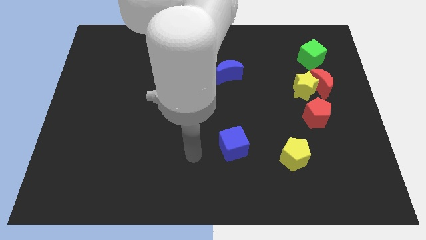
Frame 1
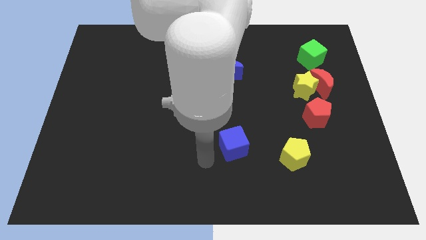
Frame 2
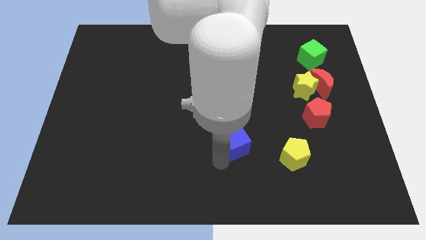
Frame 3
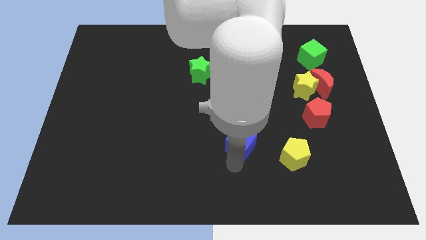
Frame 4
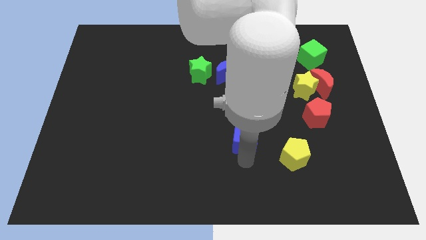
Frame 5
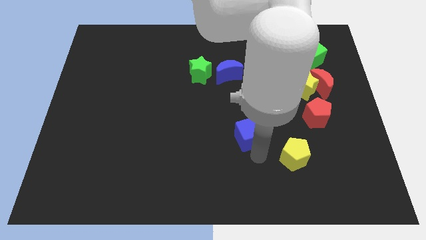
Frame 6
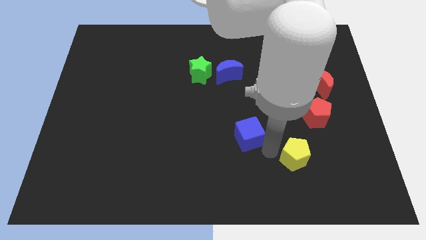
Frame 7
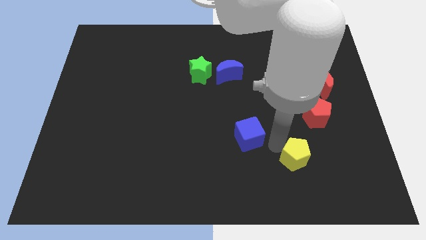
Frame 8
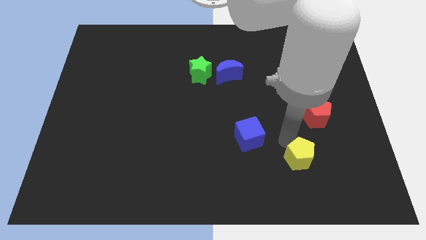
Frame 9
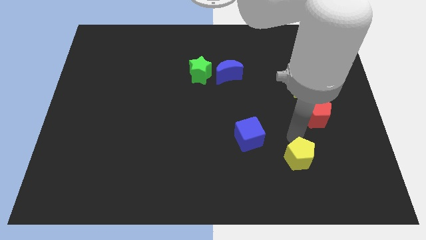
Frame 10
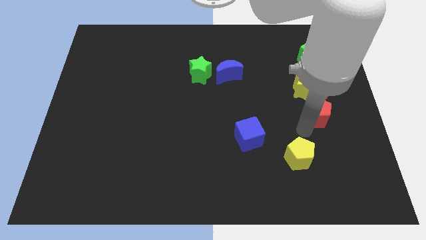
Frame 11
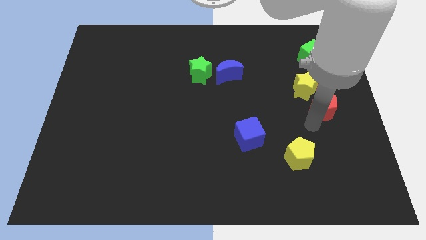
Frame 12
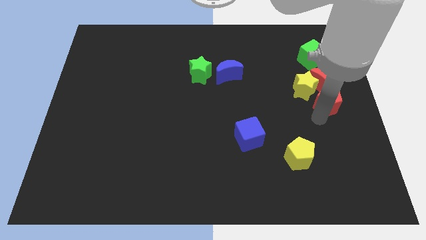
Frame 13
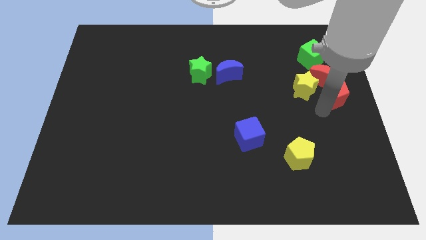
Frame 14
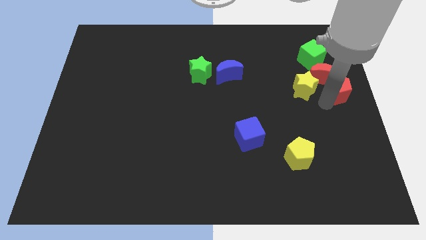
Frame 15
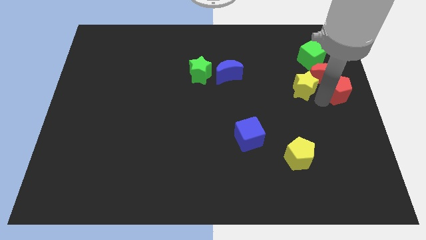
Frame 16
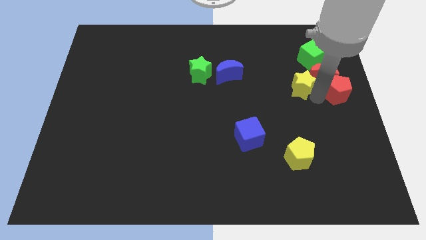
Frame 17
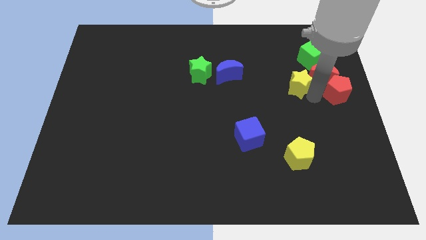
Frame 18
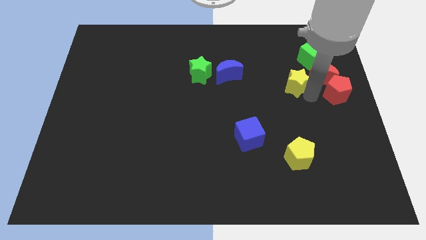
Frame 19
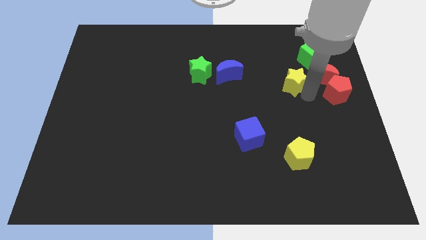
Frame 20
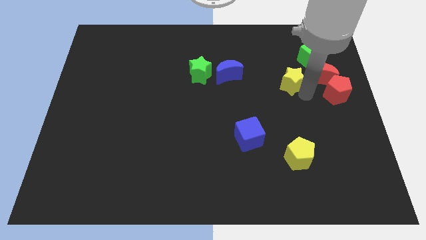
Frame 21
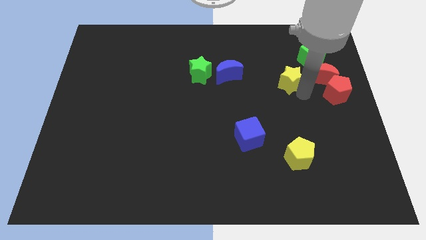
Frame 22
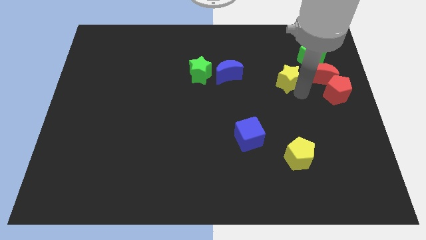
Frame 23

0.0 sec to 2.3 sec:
separate the yellow star from the red moon and red pentagon

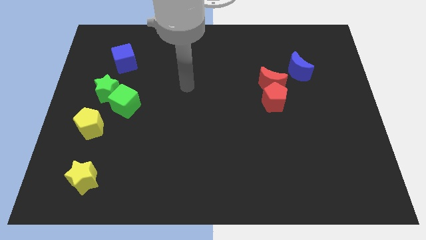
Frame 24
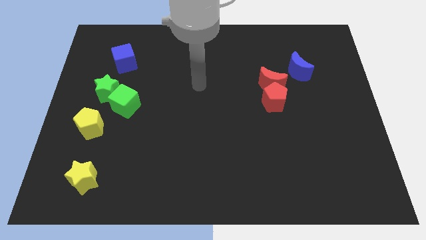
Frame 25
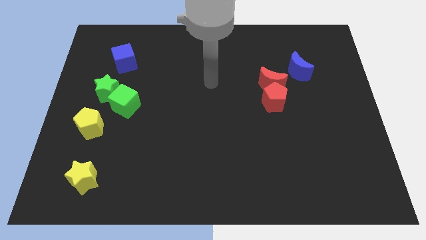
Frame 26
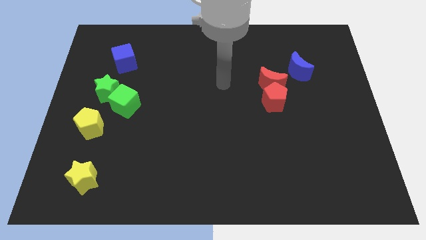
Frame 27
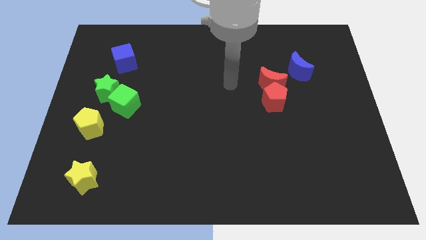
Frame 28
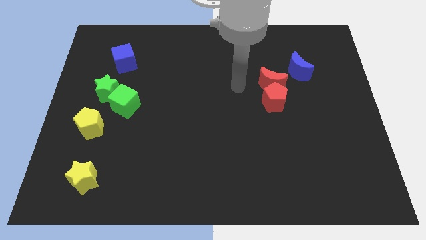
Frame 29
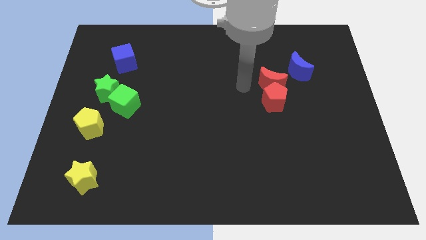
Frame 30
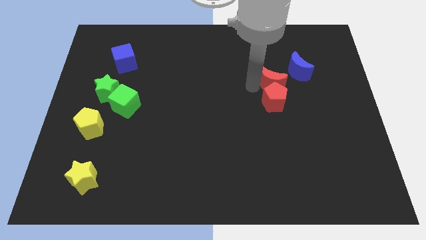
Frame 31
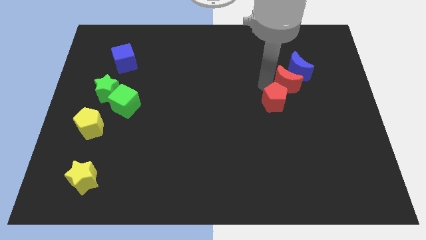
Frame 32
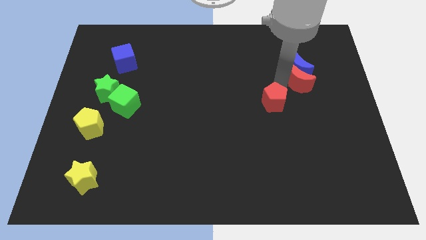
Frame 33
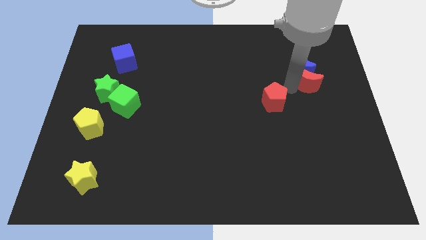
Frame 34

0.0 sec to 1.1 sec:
move the red pentagon away from the red moon

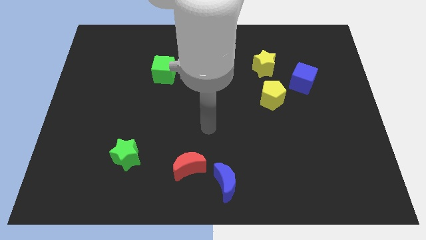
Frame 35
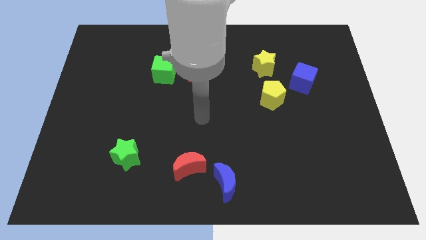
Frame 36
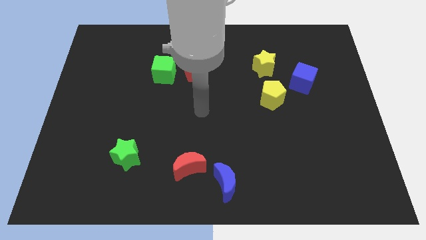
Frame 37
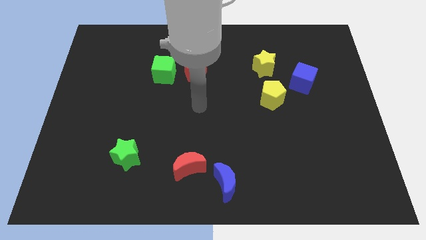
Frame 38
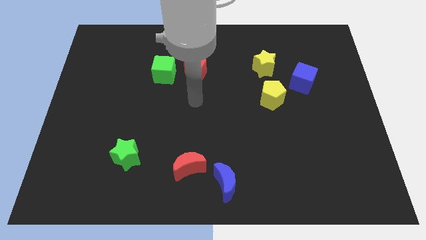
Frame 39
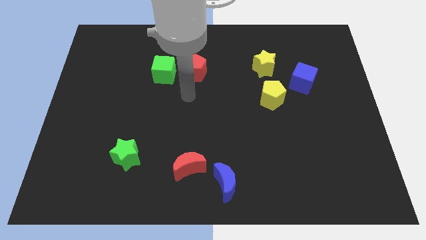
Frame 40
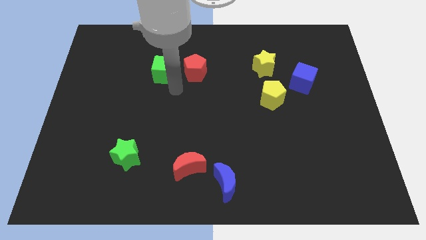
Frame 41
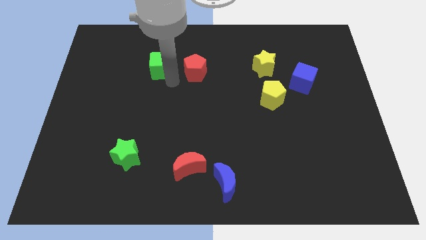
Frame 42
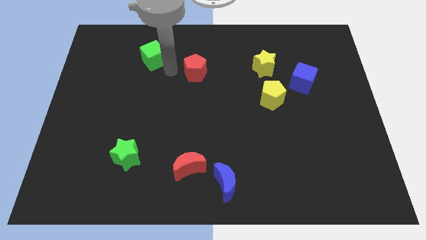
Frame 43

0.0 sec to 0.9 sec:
pull the red pentagon apart from the green cube

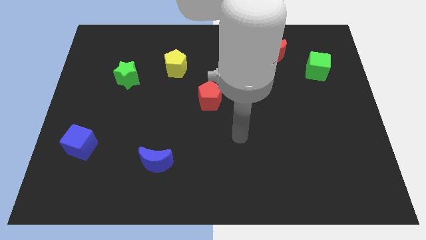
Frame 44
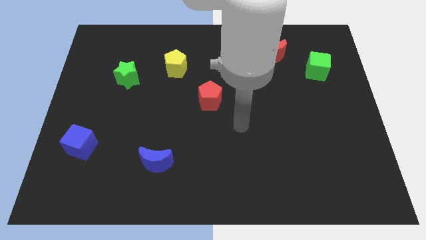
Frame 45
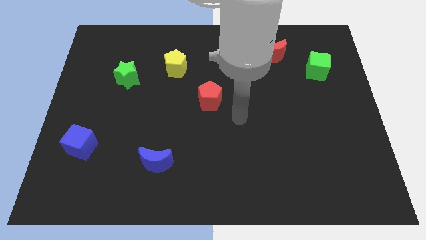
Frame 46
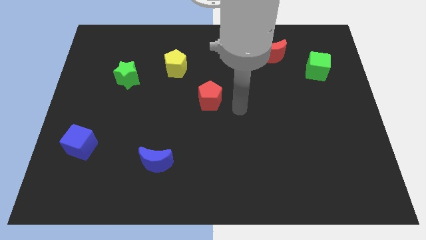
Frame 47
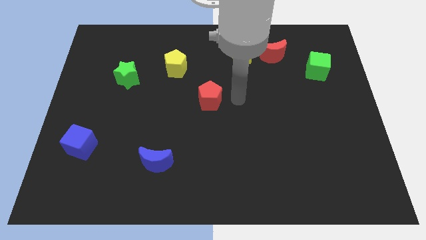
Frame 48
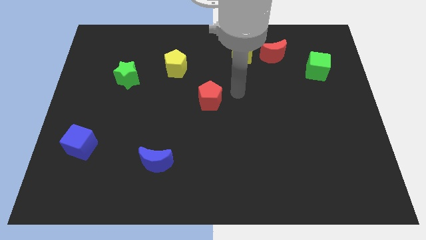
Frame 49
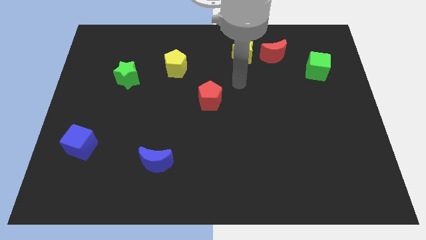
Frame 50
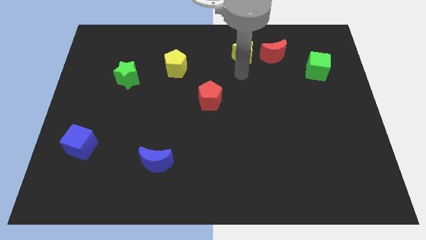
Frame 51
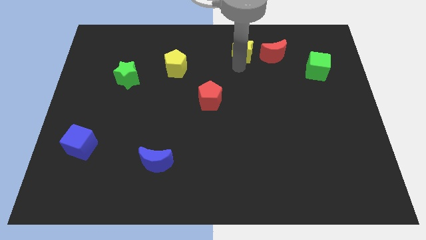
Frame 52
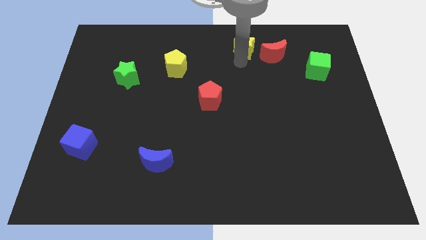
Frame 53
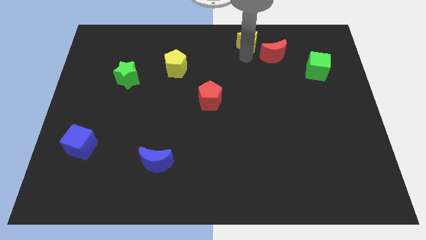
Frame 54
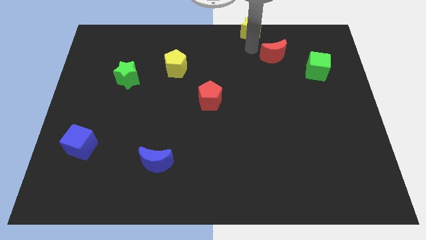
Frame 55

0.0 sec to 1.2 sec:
pull the red moon apart from the yellow star

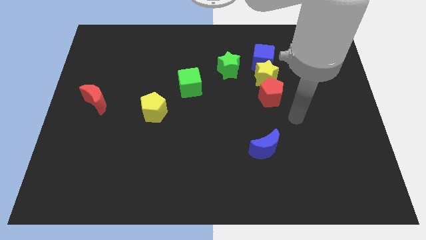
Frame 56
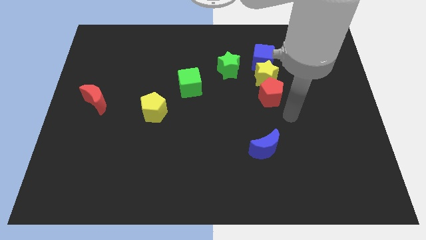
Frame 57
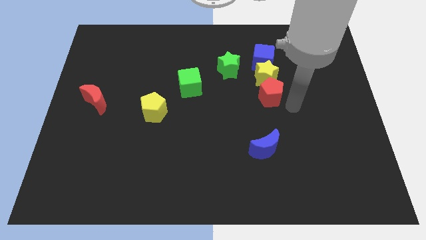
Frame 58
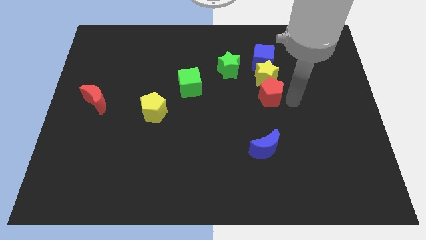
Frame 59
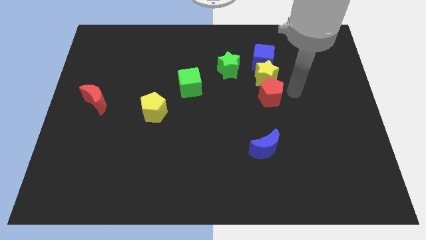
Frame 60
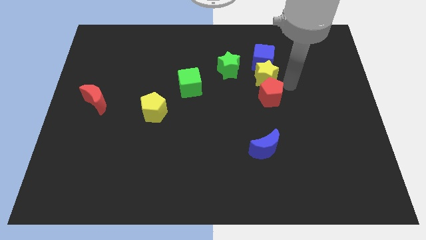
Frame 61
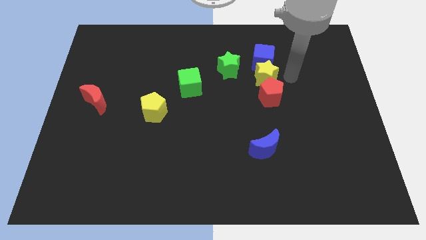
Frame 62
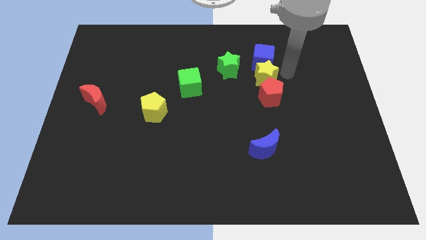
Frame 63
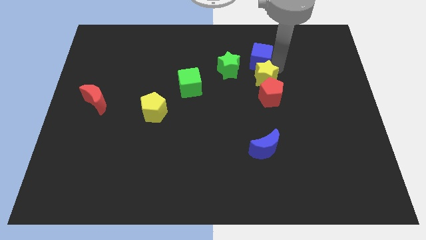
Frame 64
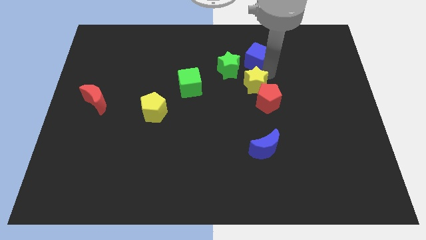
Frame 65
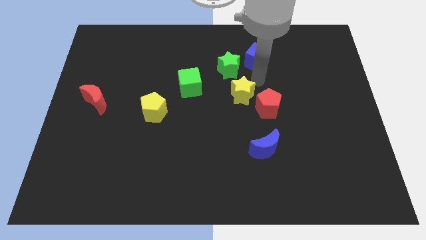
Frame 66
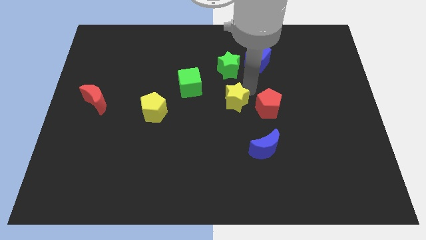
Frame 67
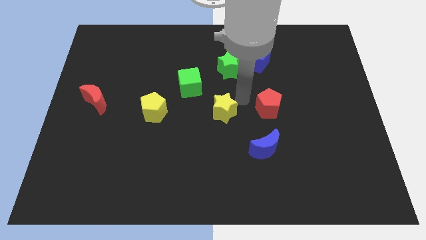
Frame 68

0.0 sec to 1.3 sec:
pull the red pentagon apart from the yellow star

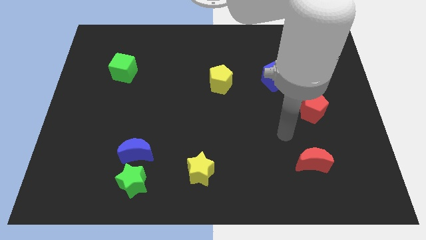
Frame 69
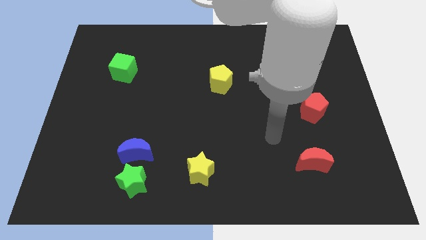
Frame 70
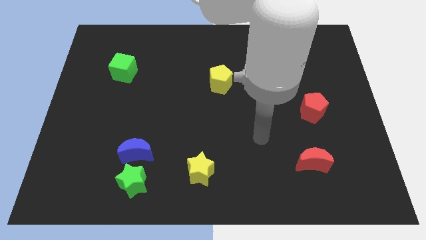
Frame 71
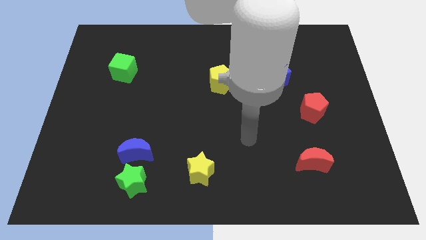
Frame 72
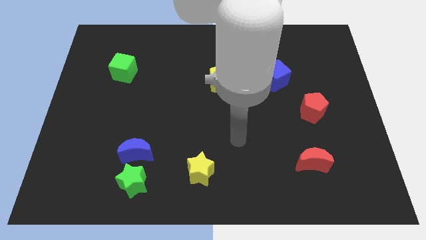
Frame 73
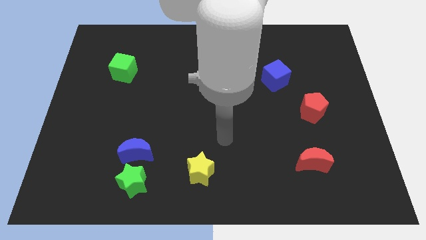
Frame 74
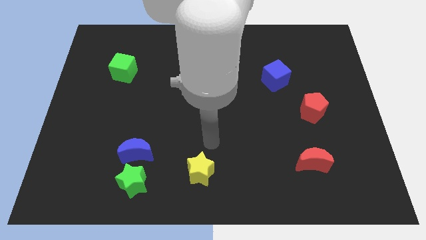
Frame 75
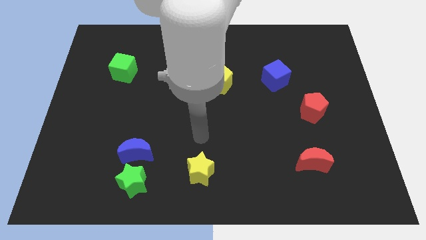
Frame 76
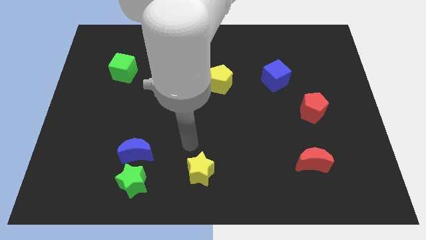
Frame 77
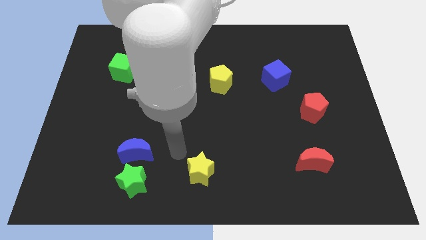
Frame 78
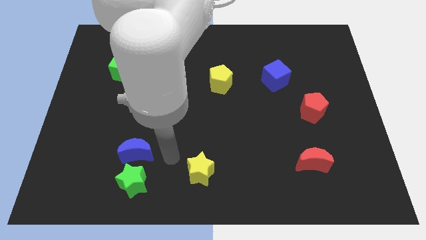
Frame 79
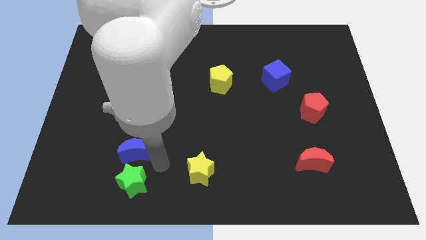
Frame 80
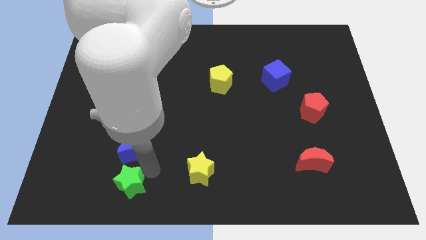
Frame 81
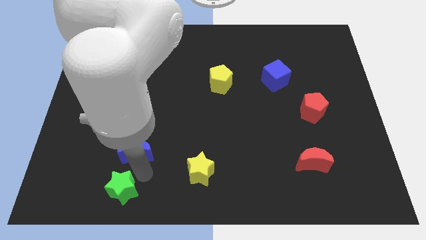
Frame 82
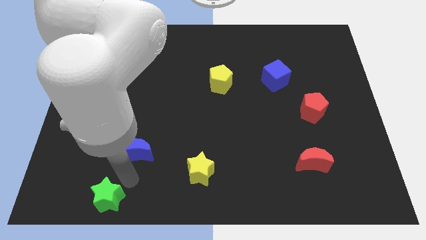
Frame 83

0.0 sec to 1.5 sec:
separate the blue moon from the green star

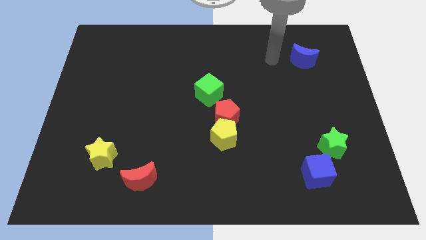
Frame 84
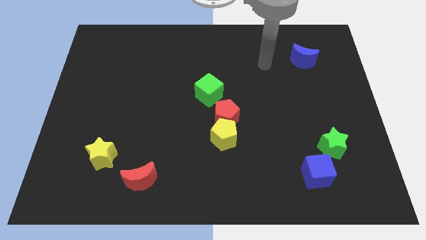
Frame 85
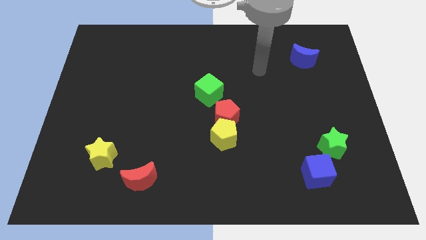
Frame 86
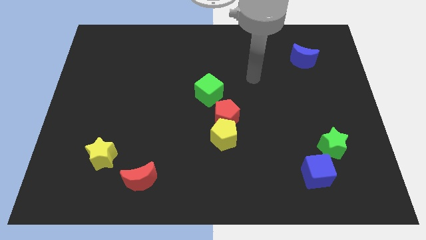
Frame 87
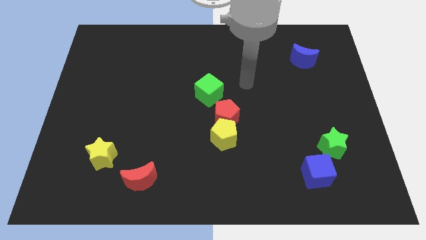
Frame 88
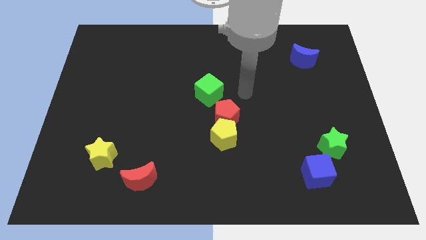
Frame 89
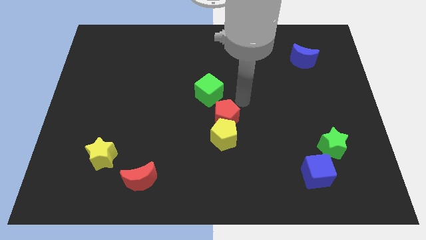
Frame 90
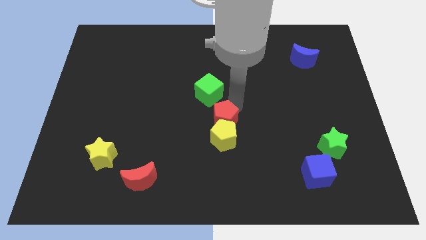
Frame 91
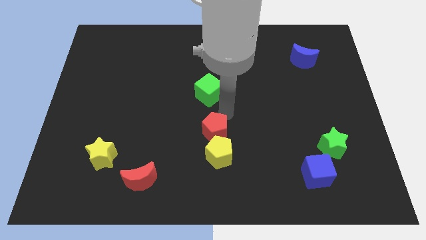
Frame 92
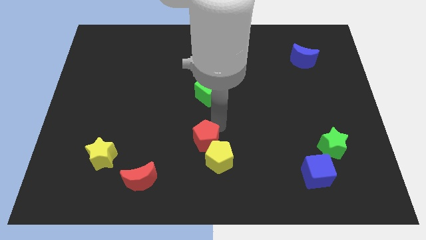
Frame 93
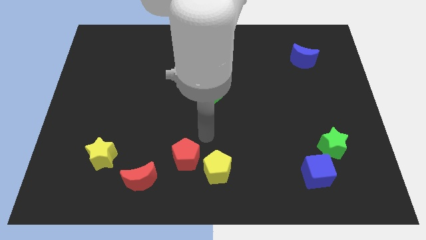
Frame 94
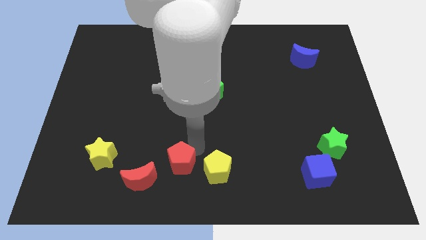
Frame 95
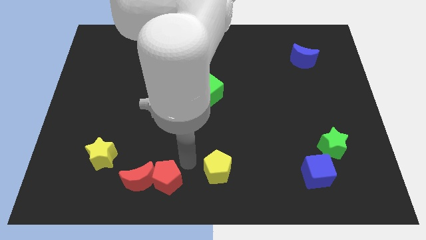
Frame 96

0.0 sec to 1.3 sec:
move the yellow pentagon away from the red pentagon
